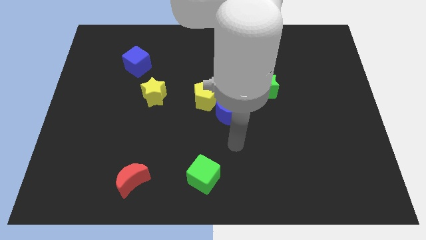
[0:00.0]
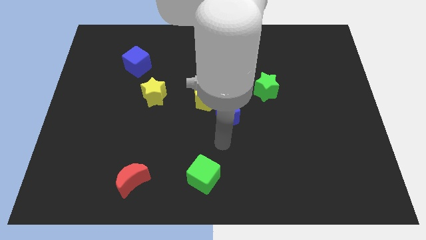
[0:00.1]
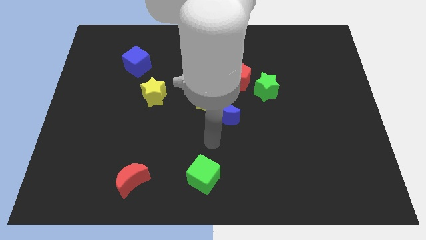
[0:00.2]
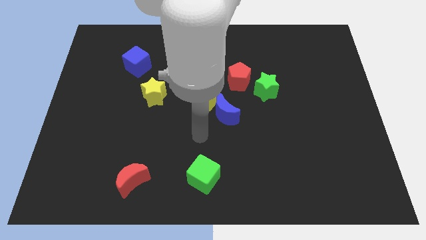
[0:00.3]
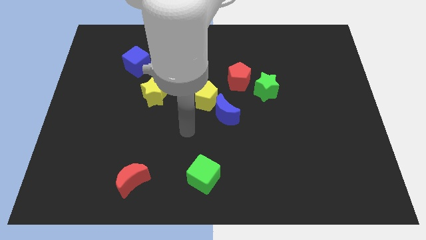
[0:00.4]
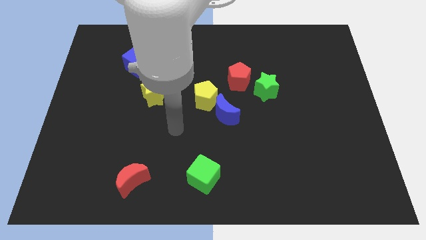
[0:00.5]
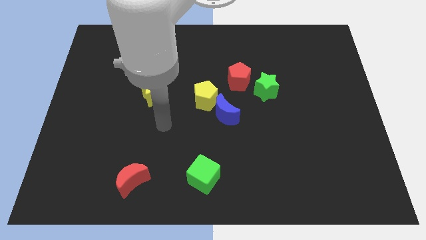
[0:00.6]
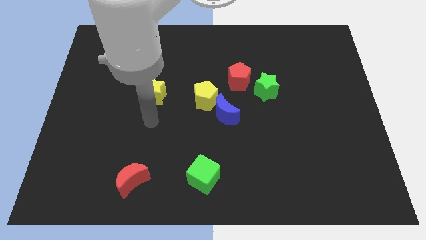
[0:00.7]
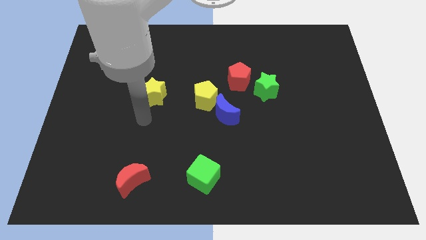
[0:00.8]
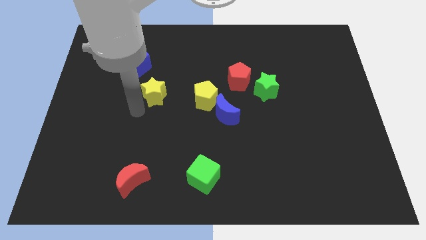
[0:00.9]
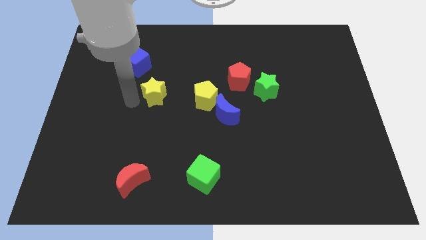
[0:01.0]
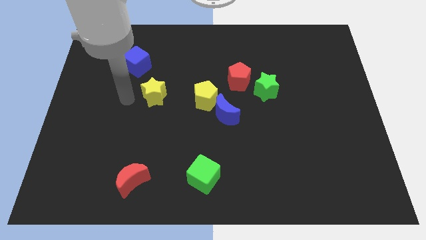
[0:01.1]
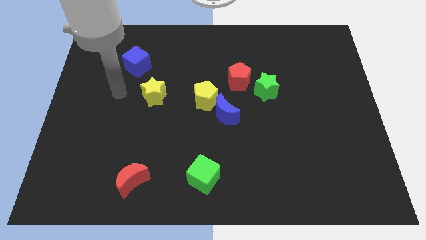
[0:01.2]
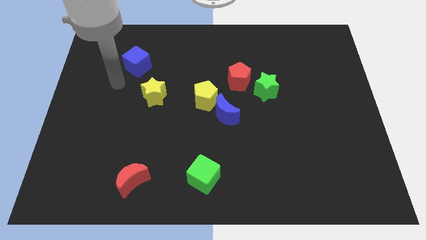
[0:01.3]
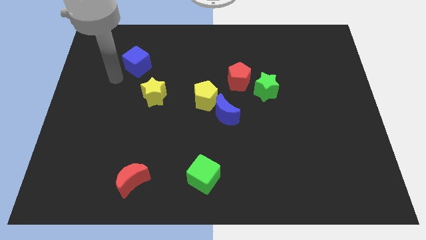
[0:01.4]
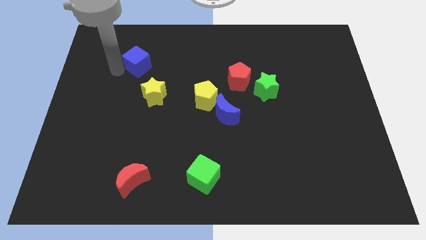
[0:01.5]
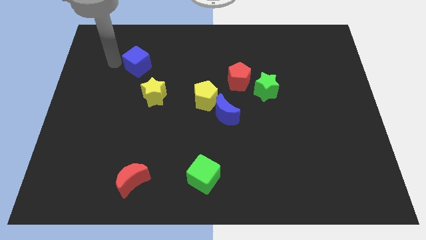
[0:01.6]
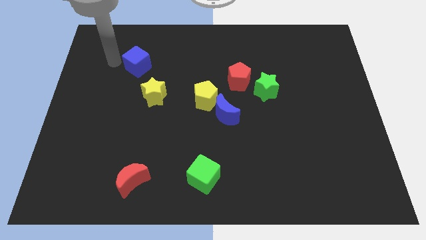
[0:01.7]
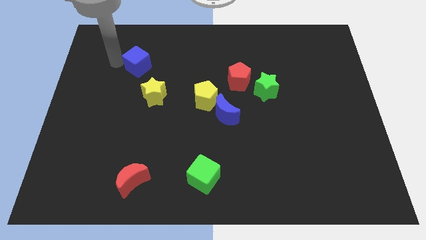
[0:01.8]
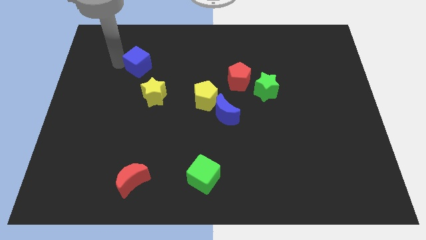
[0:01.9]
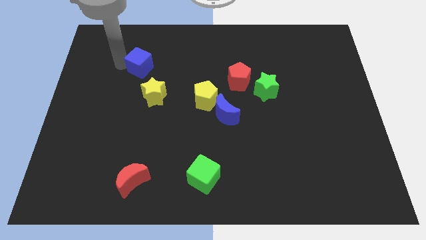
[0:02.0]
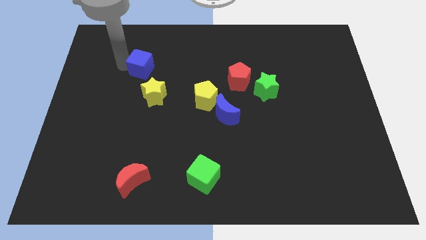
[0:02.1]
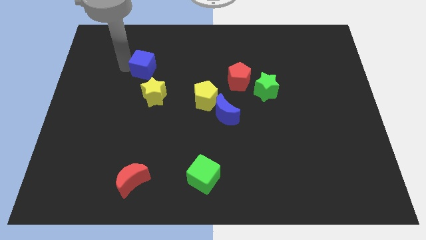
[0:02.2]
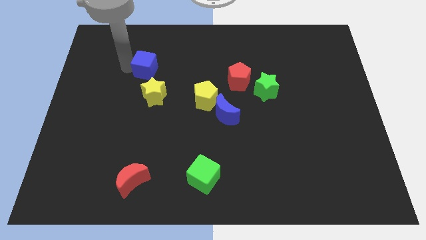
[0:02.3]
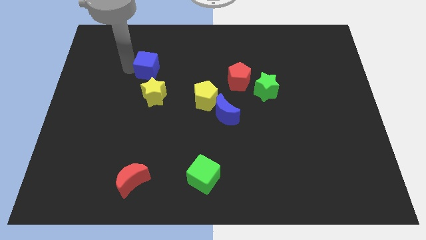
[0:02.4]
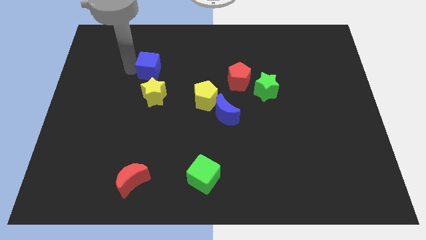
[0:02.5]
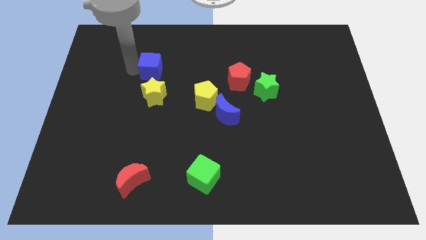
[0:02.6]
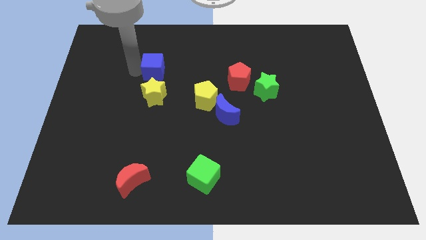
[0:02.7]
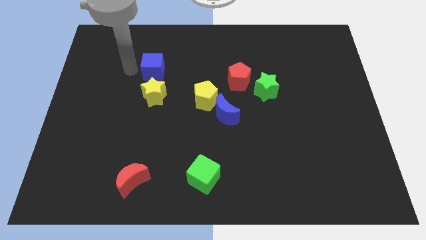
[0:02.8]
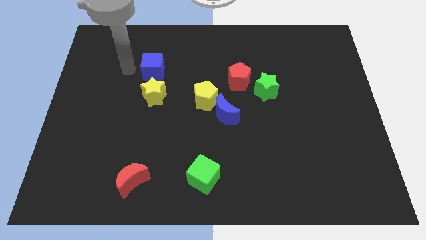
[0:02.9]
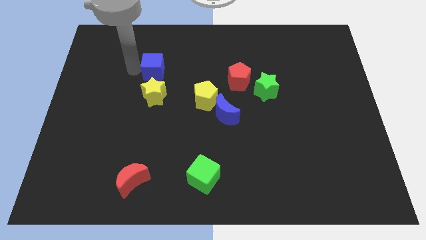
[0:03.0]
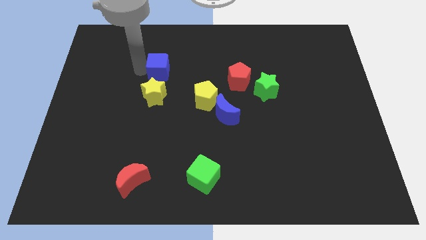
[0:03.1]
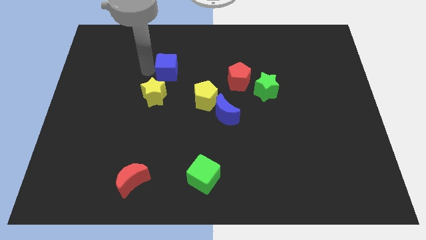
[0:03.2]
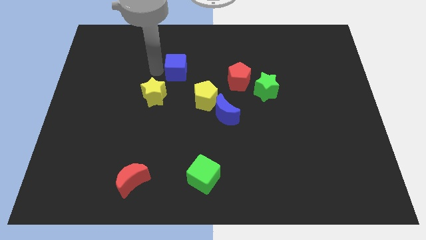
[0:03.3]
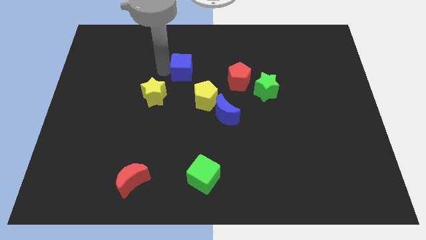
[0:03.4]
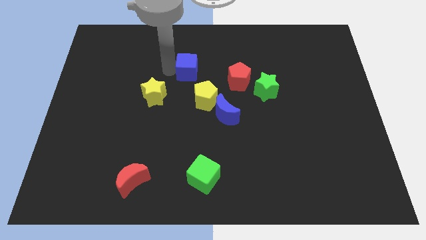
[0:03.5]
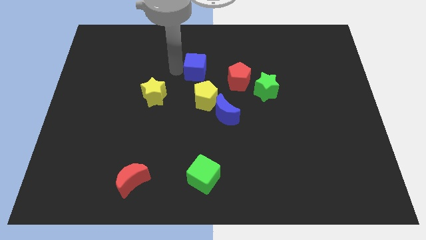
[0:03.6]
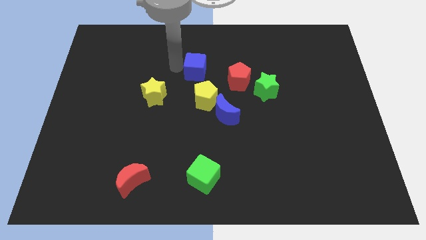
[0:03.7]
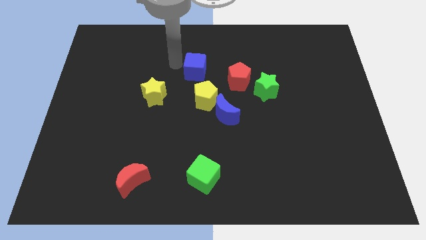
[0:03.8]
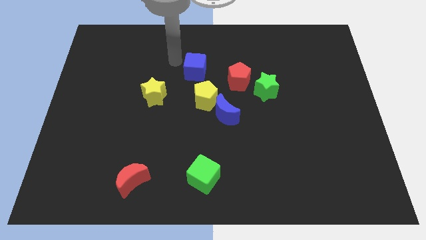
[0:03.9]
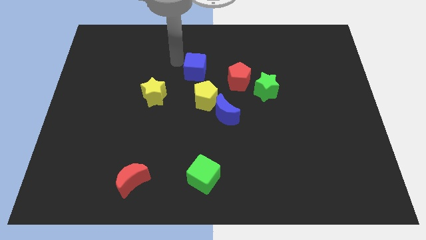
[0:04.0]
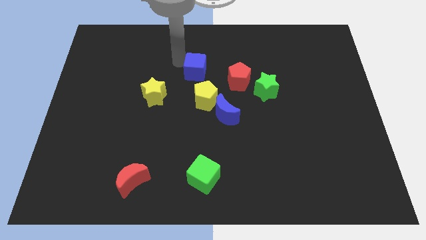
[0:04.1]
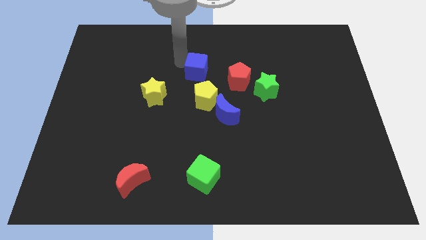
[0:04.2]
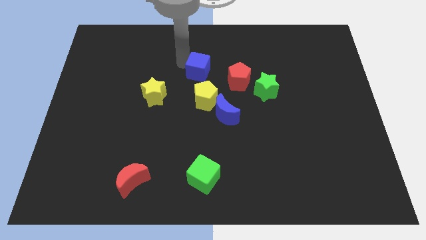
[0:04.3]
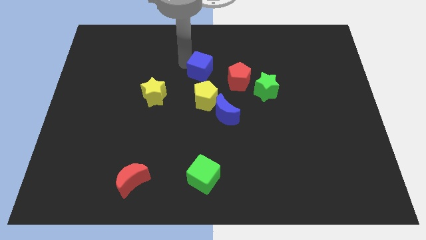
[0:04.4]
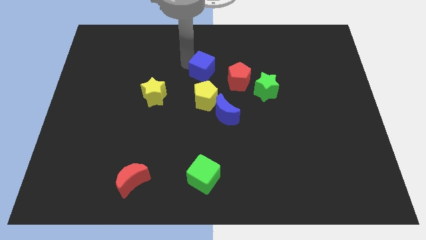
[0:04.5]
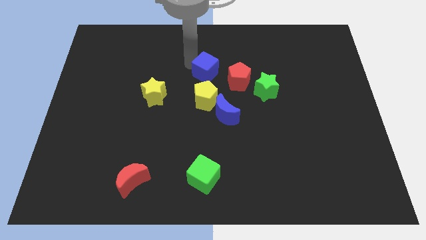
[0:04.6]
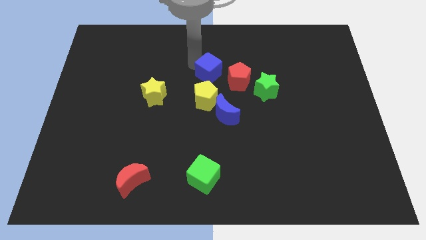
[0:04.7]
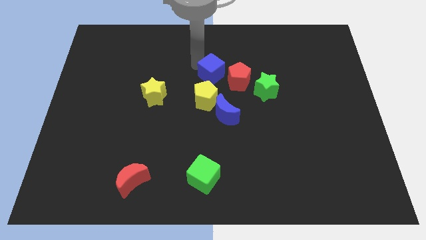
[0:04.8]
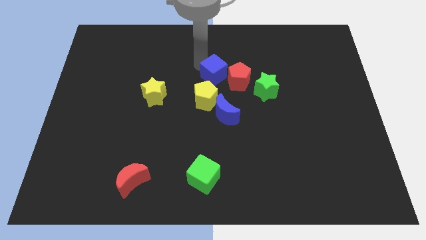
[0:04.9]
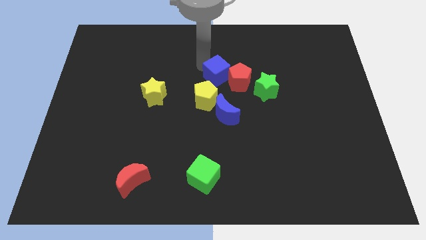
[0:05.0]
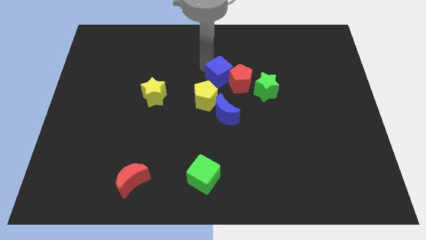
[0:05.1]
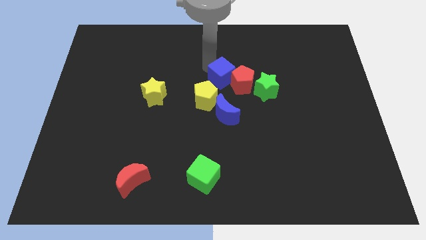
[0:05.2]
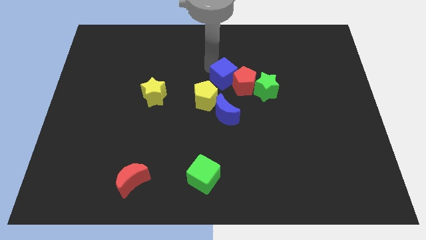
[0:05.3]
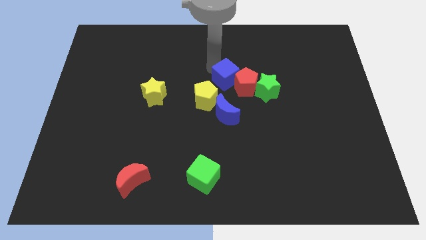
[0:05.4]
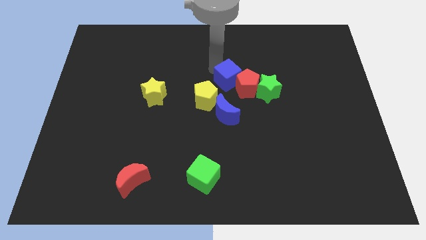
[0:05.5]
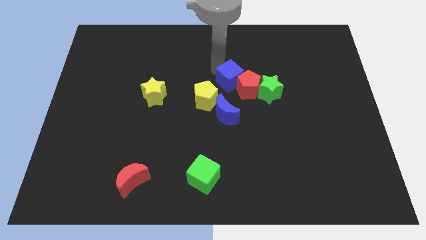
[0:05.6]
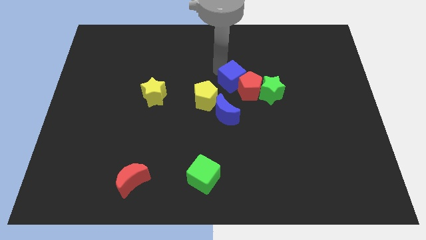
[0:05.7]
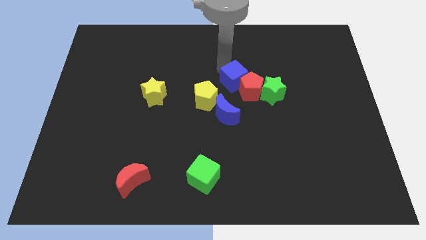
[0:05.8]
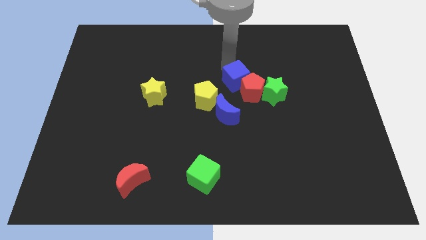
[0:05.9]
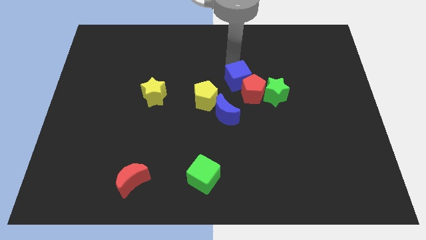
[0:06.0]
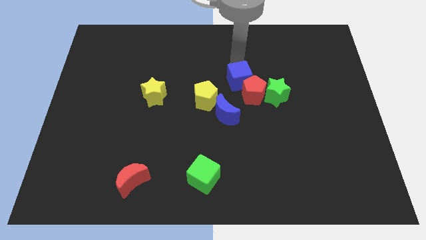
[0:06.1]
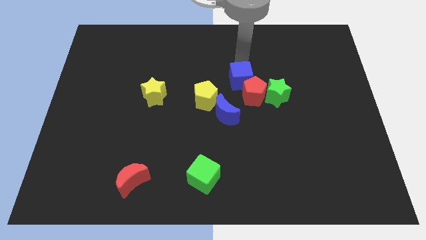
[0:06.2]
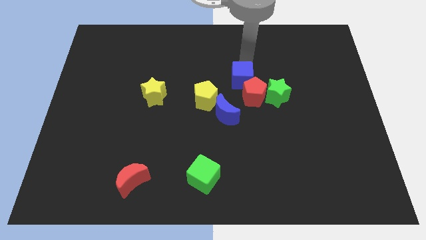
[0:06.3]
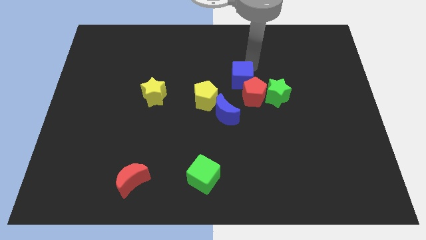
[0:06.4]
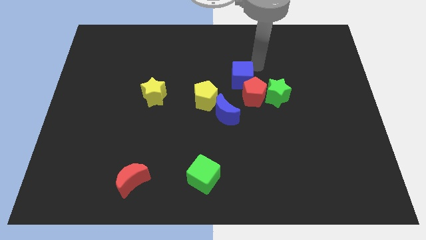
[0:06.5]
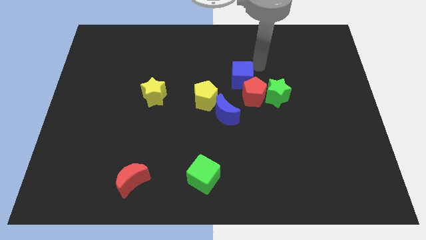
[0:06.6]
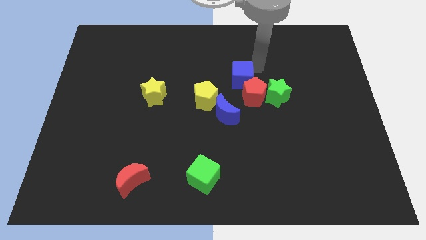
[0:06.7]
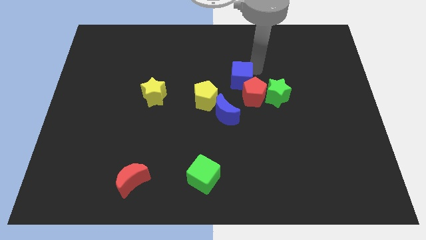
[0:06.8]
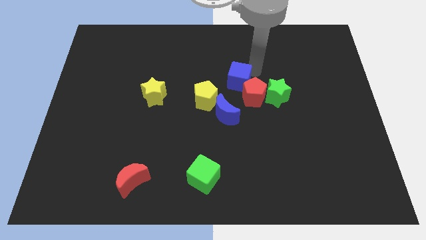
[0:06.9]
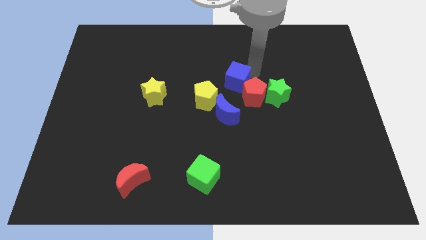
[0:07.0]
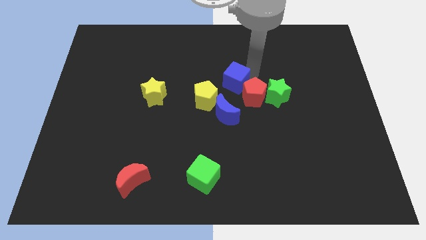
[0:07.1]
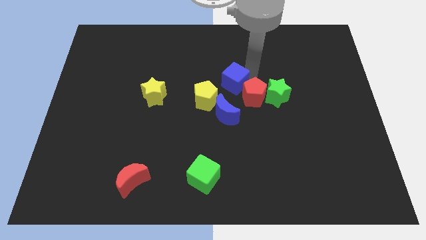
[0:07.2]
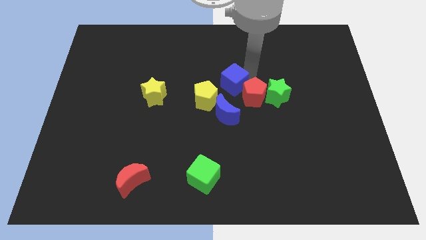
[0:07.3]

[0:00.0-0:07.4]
put the blue cube to the right of the yellow pentagon

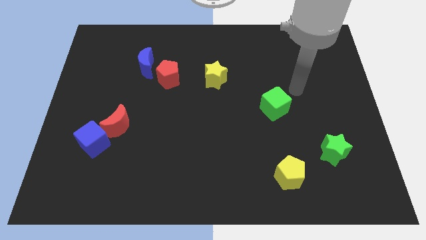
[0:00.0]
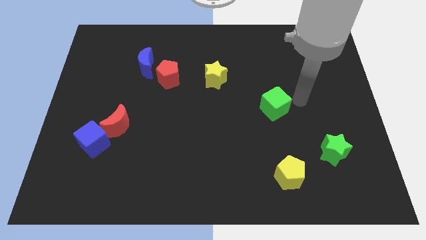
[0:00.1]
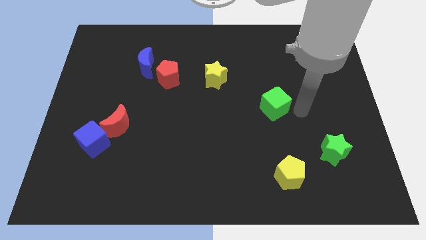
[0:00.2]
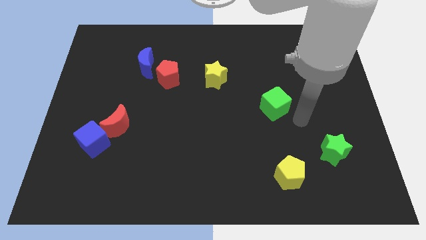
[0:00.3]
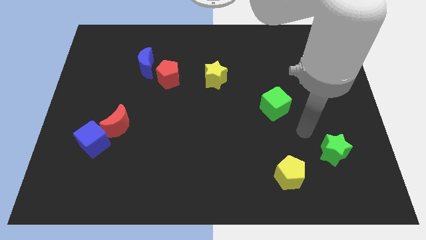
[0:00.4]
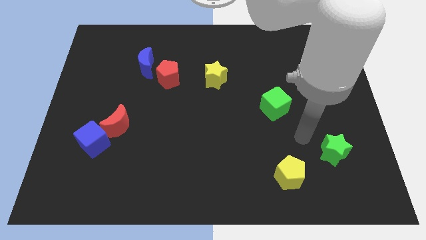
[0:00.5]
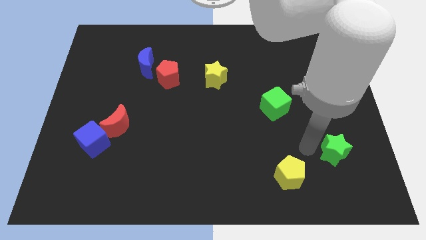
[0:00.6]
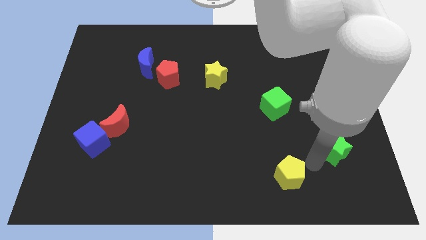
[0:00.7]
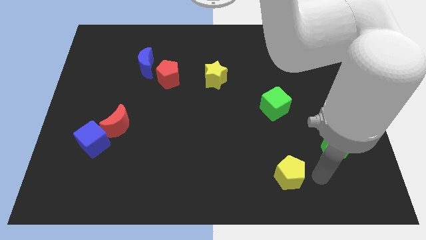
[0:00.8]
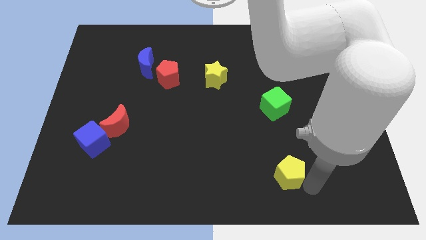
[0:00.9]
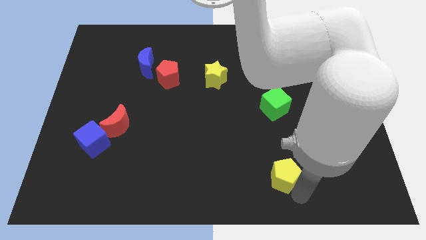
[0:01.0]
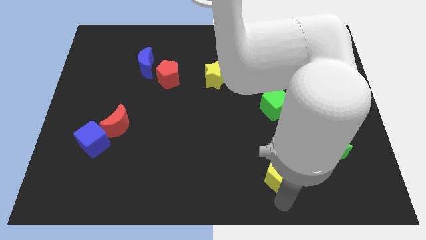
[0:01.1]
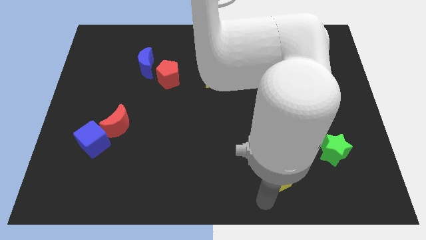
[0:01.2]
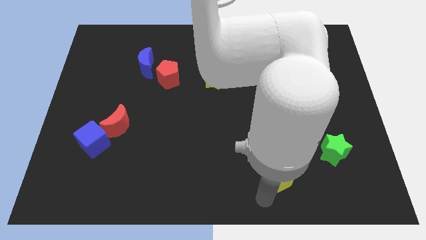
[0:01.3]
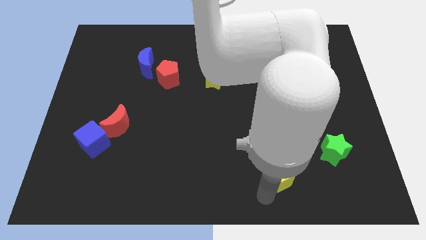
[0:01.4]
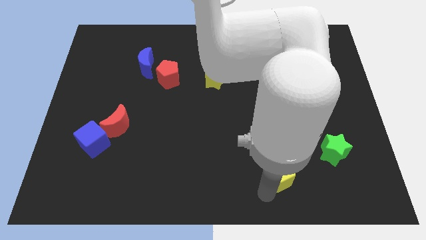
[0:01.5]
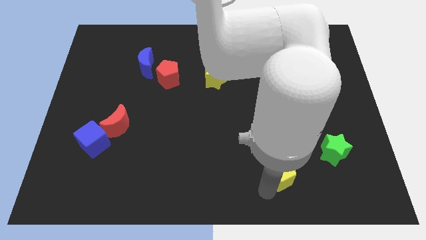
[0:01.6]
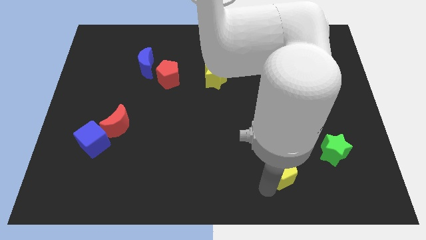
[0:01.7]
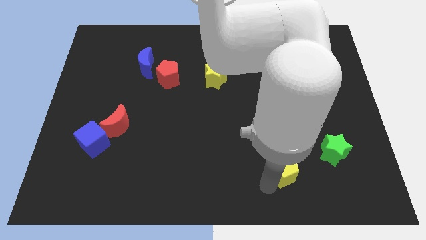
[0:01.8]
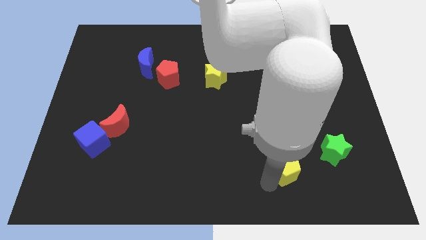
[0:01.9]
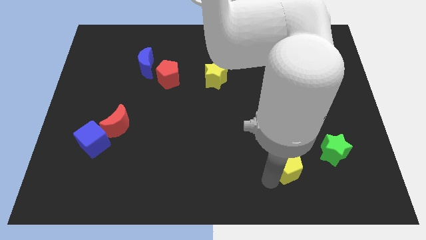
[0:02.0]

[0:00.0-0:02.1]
move the yellow pentagon below the green cube
